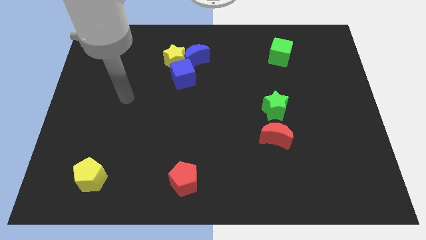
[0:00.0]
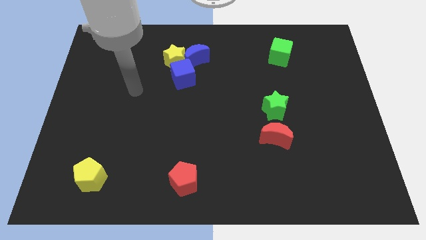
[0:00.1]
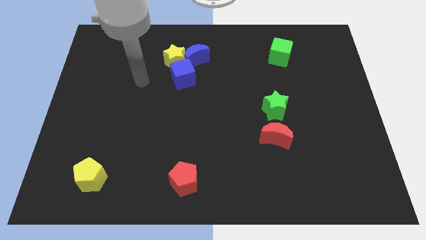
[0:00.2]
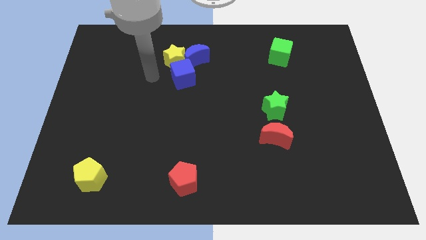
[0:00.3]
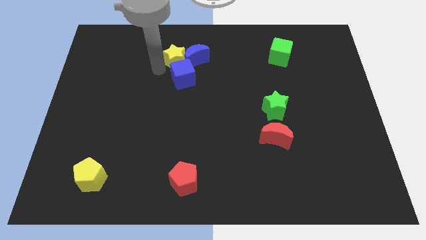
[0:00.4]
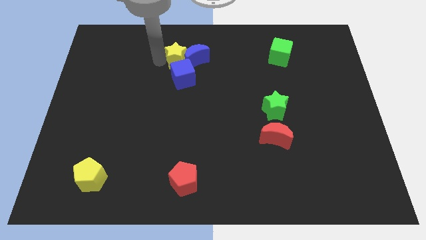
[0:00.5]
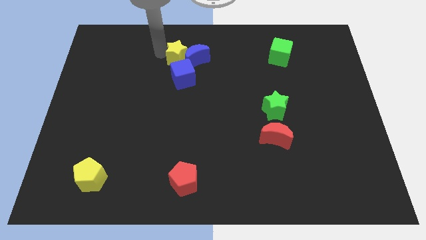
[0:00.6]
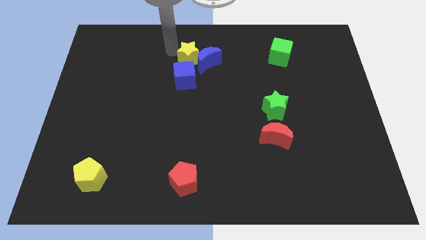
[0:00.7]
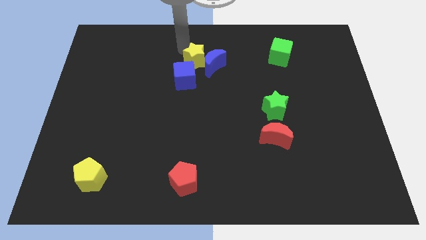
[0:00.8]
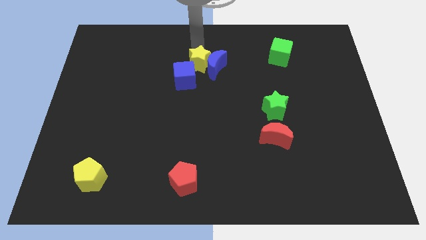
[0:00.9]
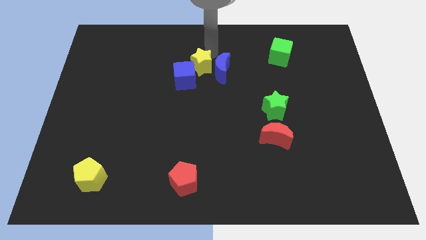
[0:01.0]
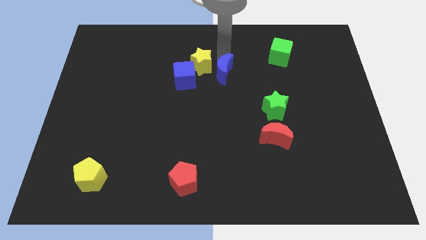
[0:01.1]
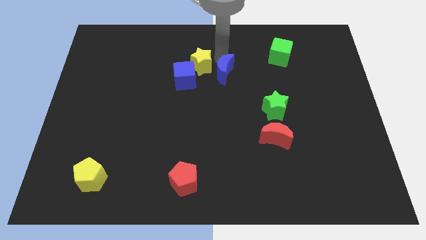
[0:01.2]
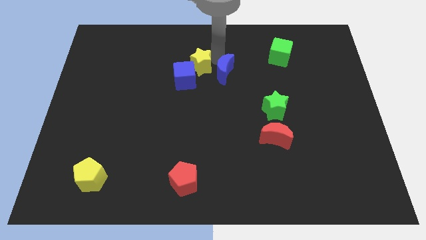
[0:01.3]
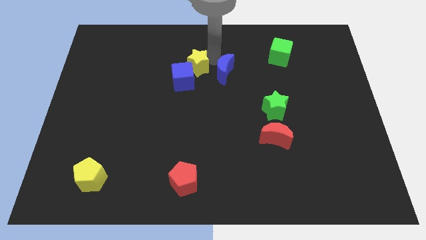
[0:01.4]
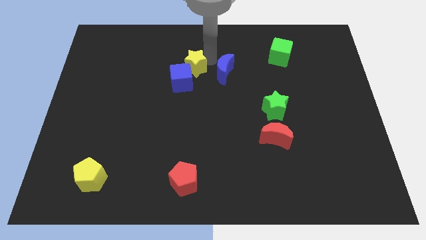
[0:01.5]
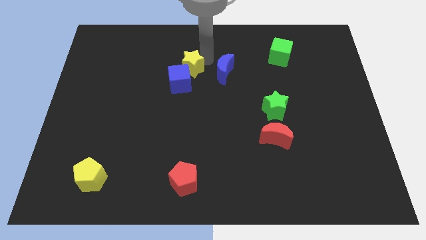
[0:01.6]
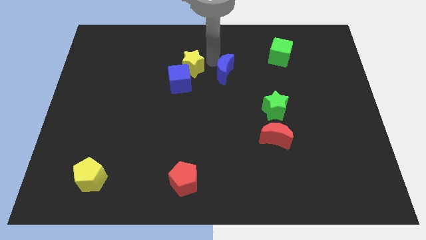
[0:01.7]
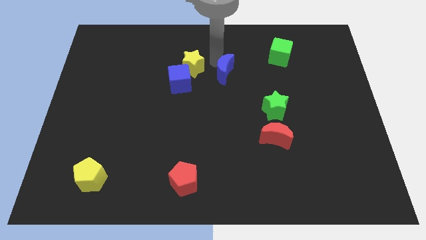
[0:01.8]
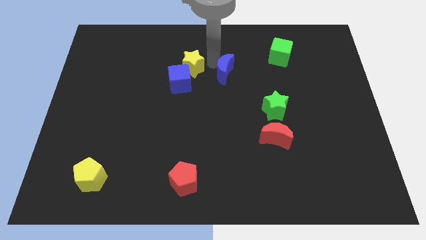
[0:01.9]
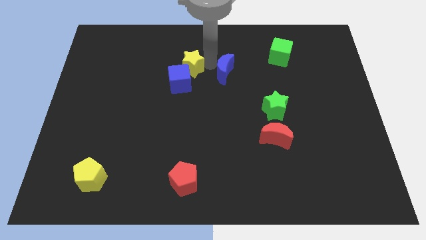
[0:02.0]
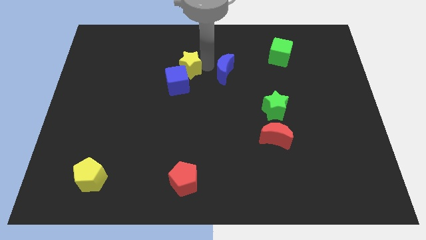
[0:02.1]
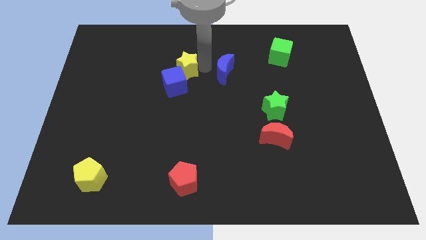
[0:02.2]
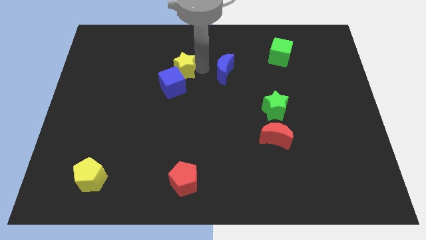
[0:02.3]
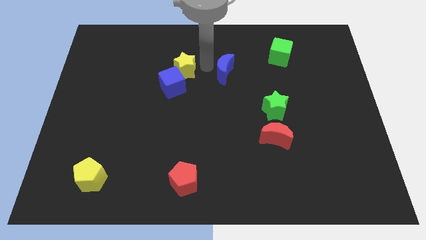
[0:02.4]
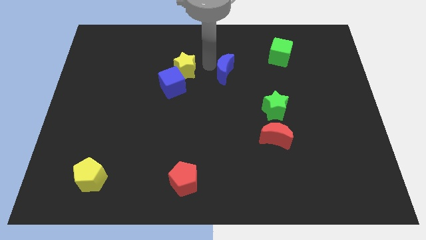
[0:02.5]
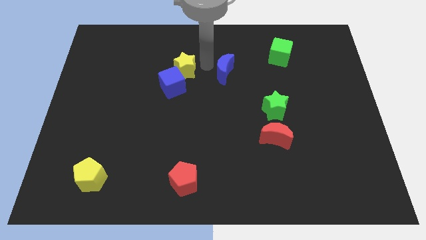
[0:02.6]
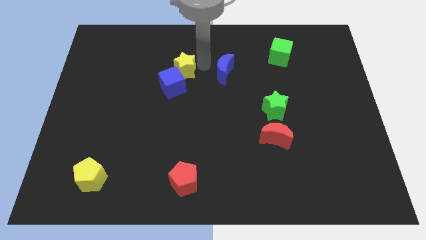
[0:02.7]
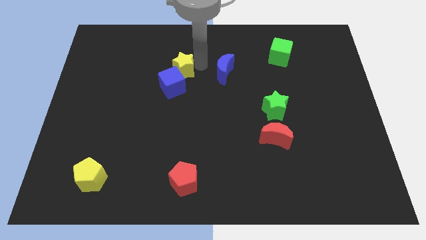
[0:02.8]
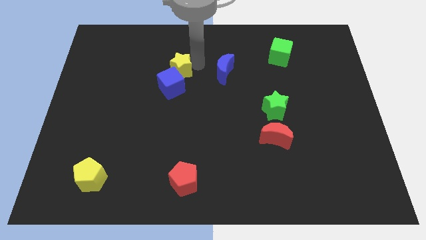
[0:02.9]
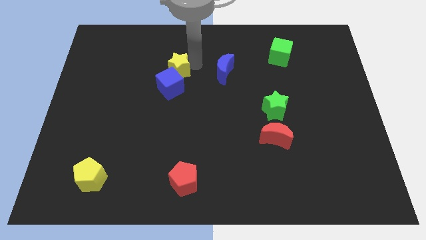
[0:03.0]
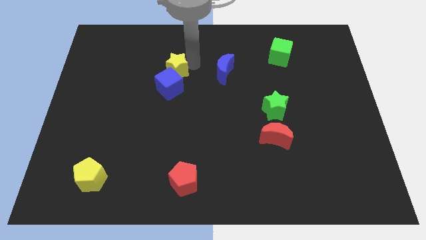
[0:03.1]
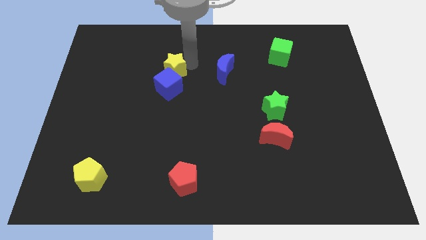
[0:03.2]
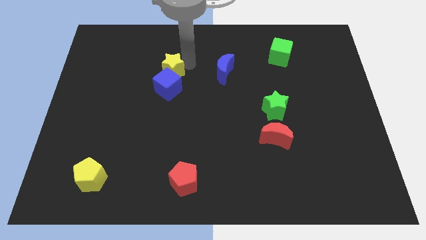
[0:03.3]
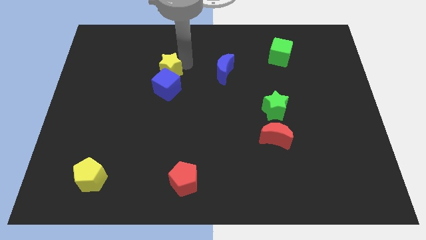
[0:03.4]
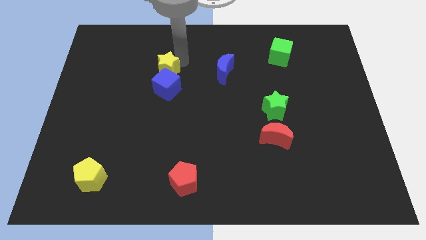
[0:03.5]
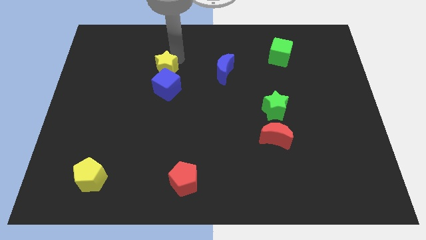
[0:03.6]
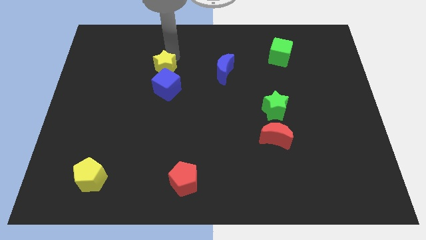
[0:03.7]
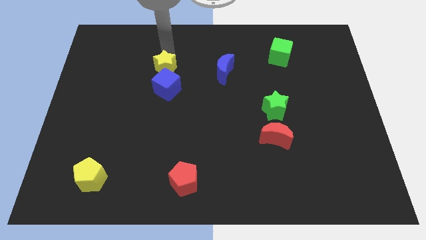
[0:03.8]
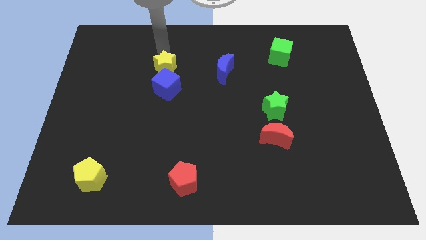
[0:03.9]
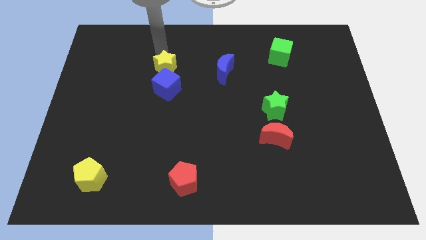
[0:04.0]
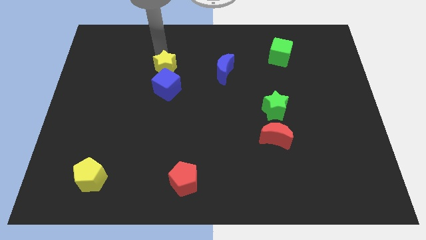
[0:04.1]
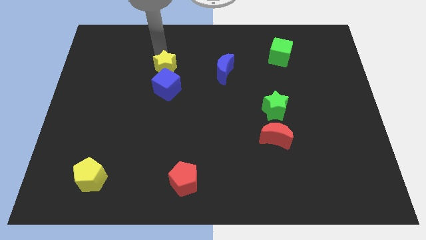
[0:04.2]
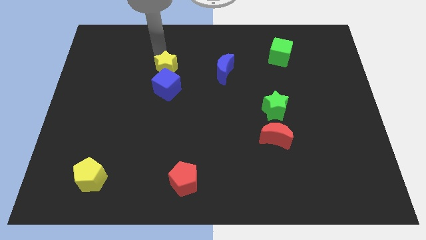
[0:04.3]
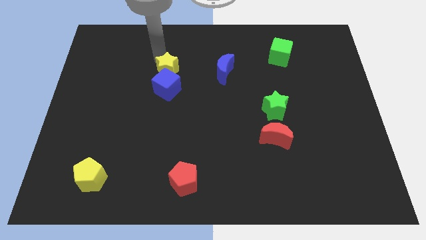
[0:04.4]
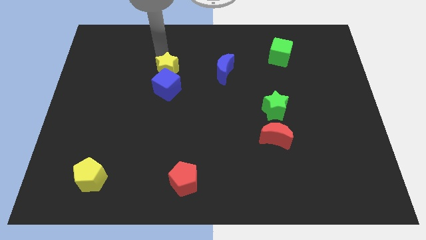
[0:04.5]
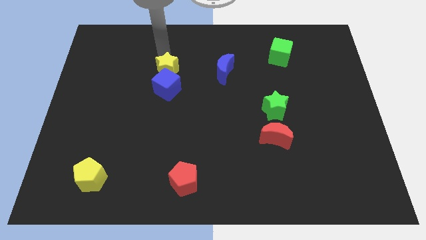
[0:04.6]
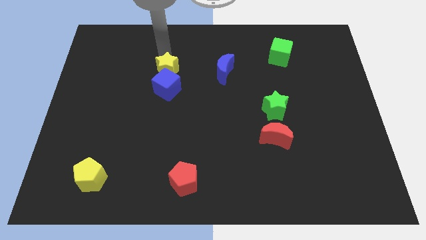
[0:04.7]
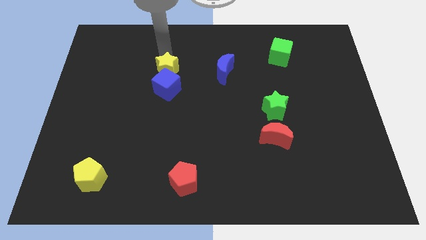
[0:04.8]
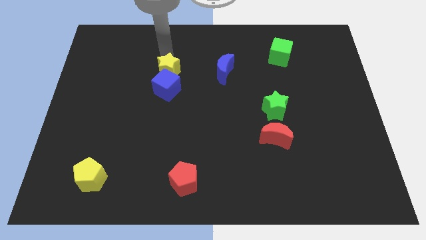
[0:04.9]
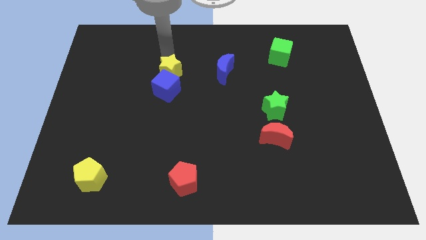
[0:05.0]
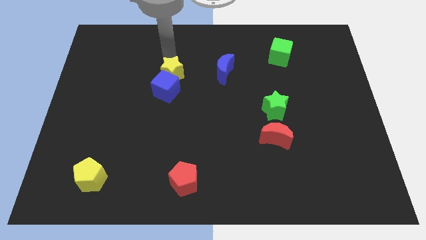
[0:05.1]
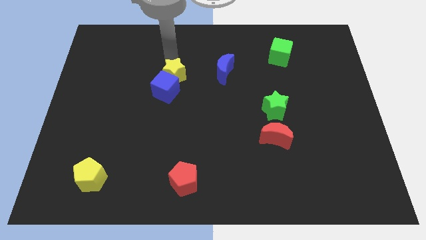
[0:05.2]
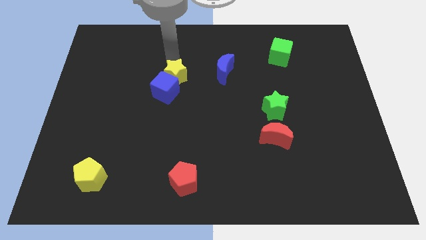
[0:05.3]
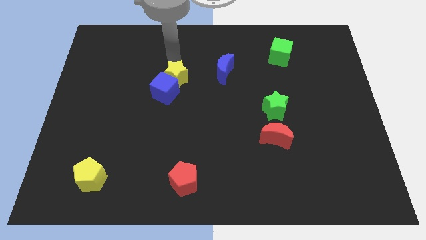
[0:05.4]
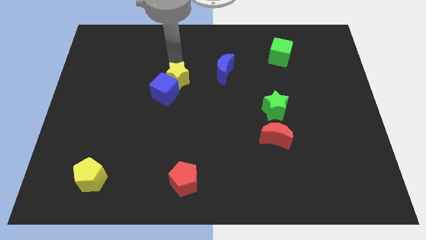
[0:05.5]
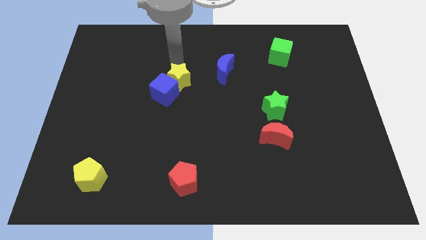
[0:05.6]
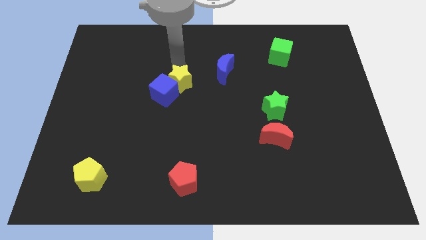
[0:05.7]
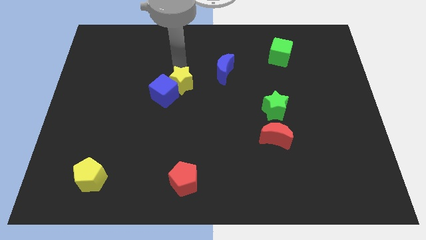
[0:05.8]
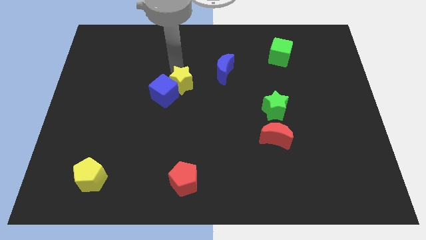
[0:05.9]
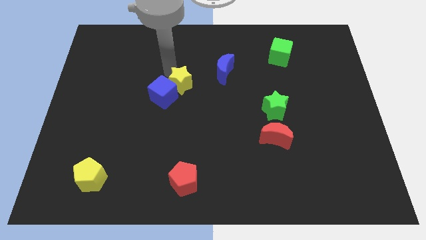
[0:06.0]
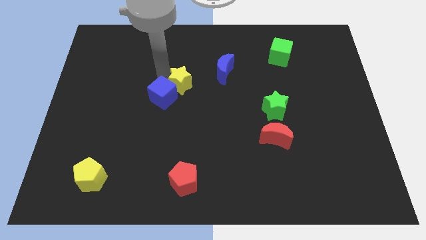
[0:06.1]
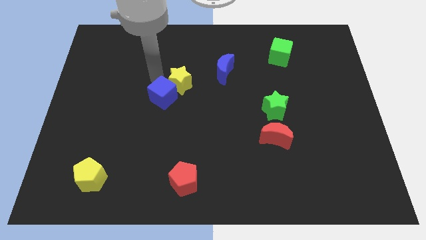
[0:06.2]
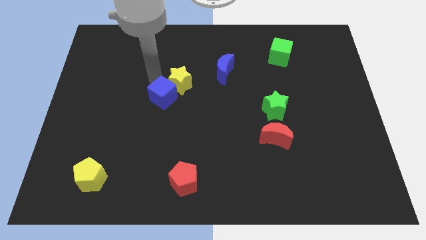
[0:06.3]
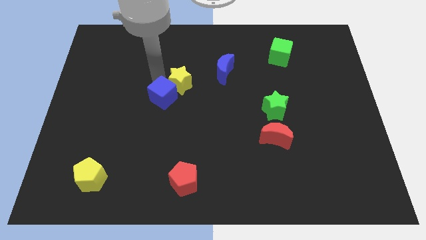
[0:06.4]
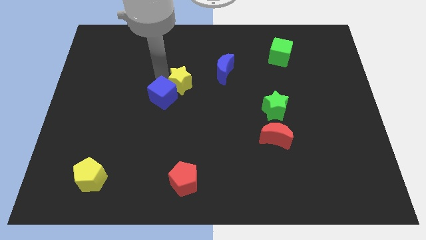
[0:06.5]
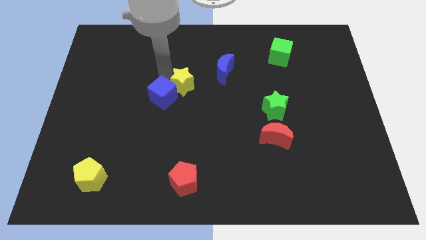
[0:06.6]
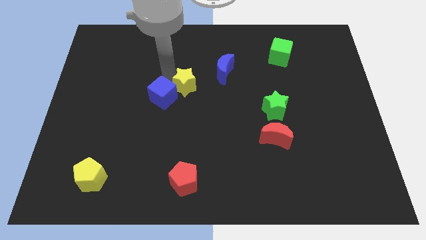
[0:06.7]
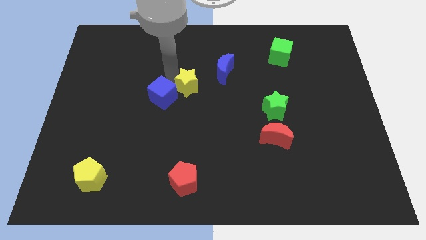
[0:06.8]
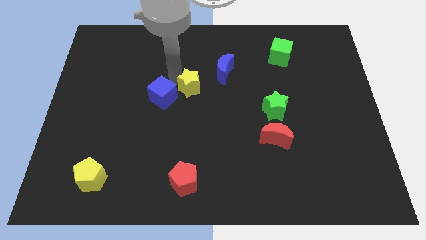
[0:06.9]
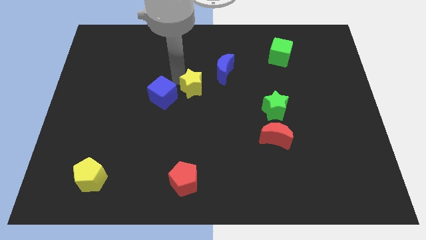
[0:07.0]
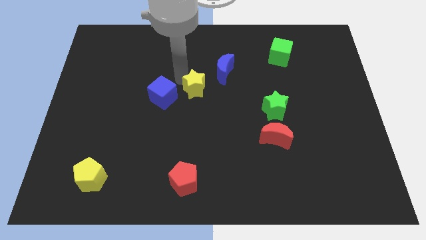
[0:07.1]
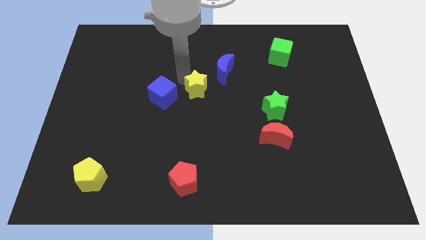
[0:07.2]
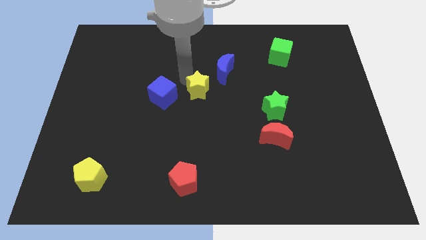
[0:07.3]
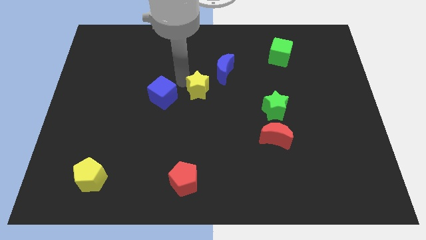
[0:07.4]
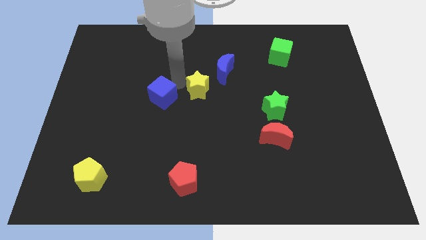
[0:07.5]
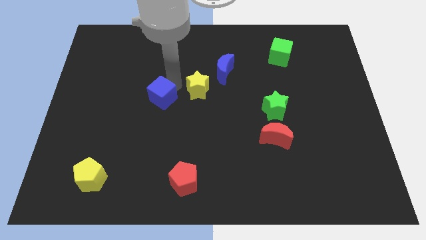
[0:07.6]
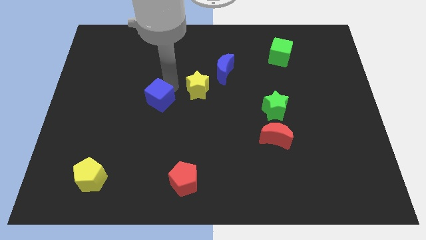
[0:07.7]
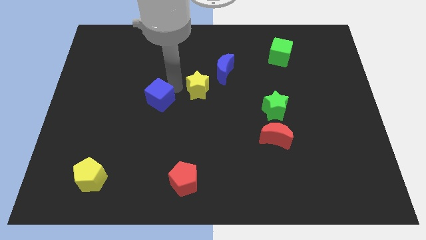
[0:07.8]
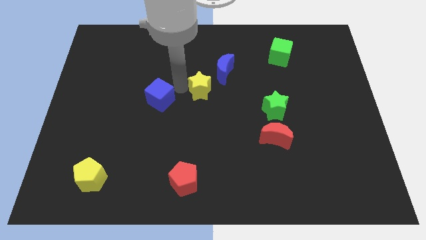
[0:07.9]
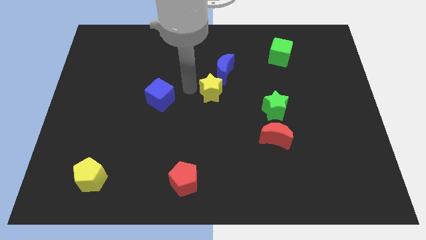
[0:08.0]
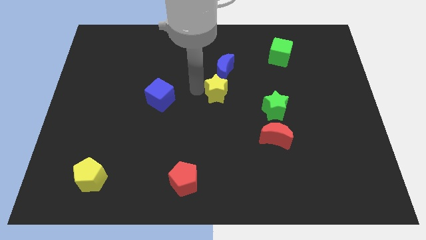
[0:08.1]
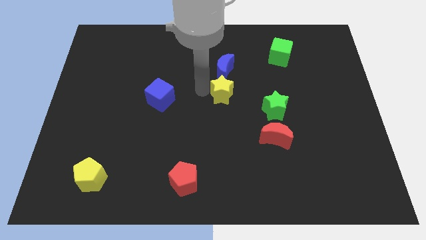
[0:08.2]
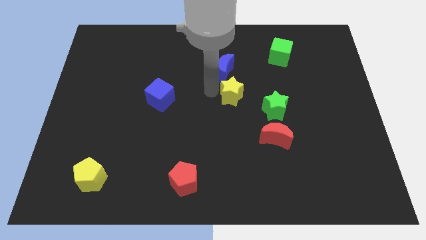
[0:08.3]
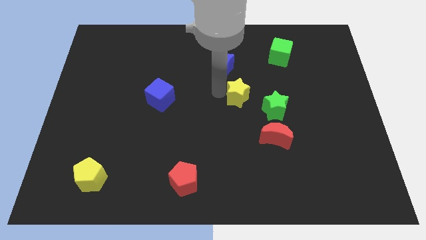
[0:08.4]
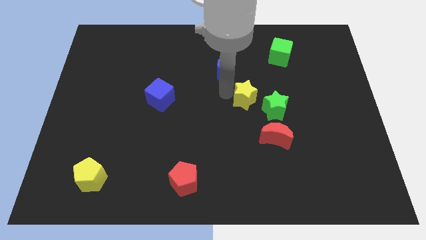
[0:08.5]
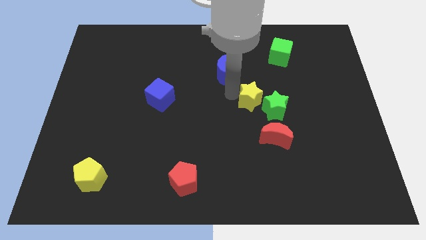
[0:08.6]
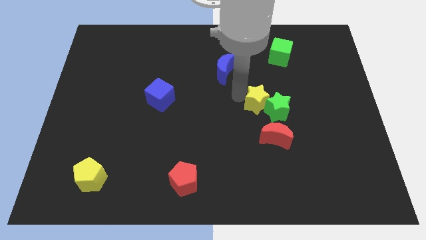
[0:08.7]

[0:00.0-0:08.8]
move the yellow star towards the green star
